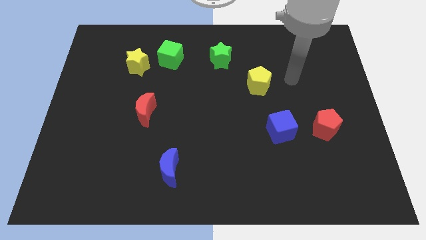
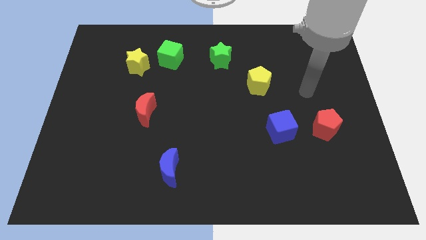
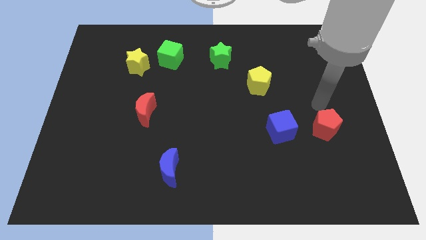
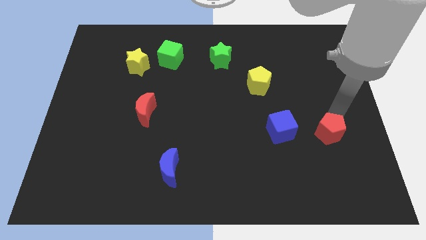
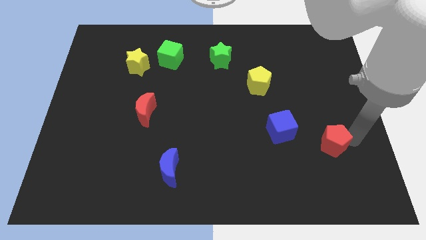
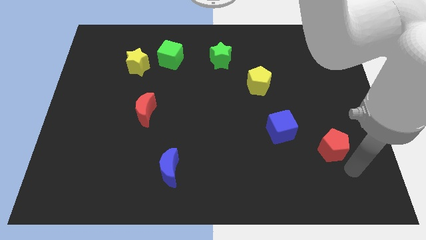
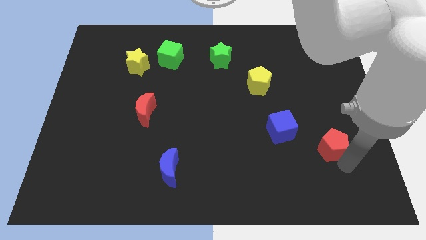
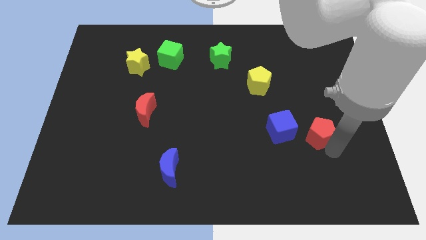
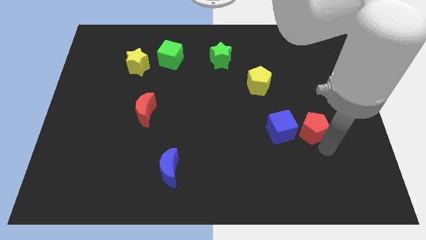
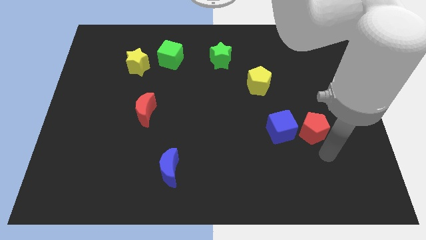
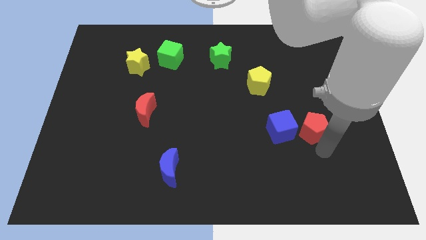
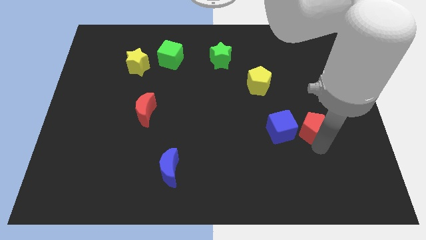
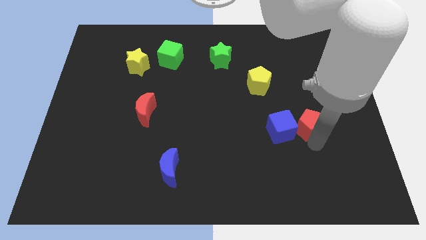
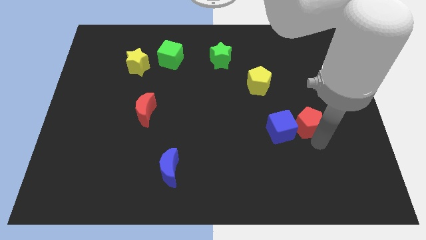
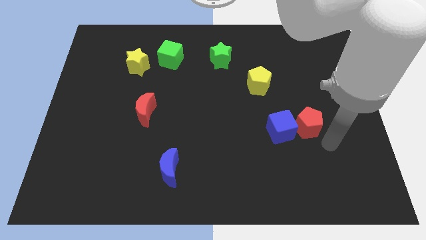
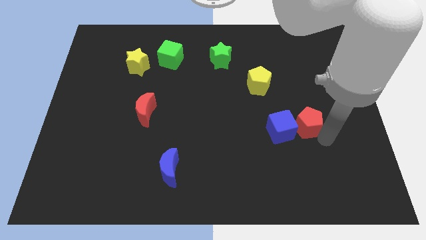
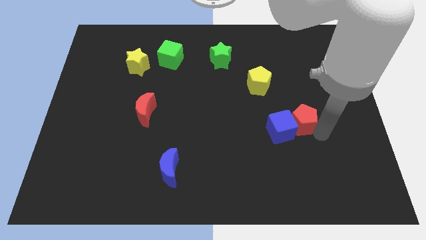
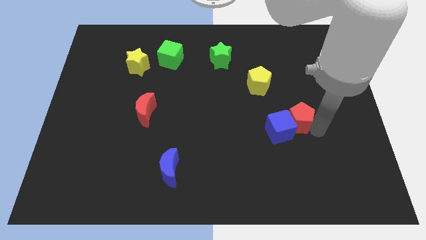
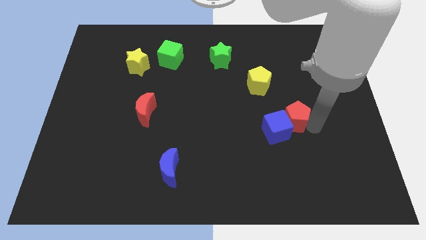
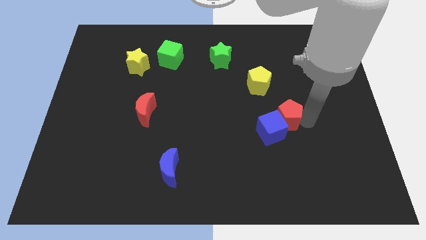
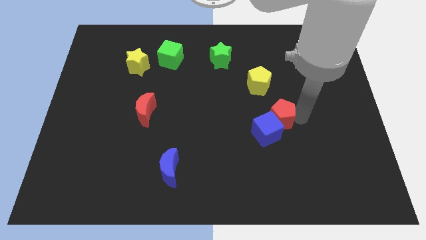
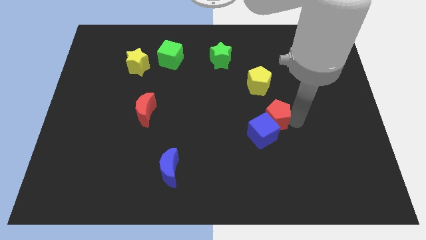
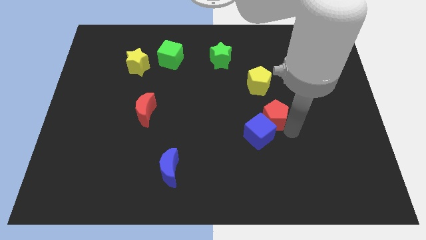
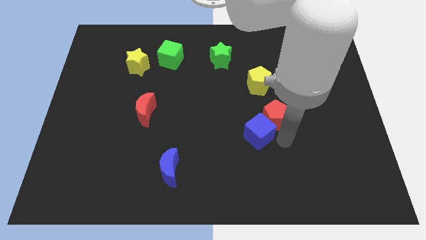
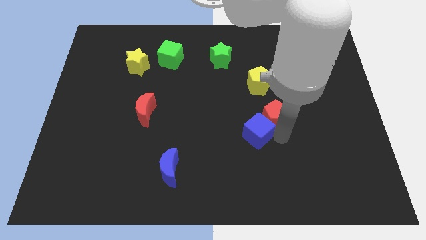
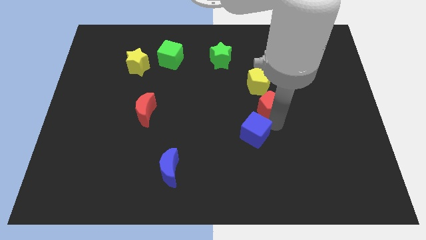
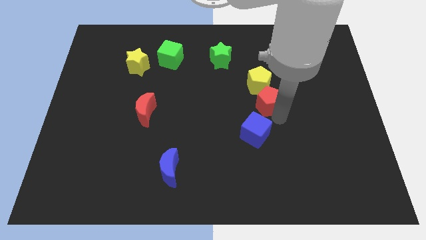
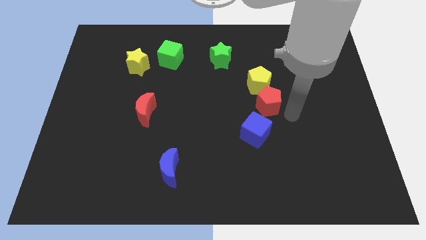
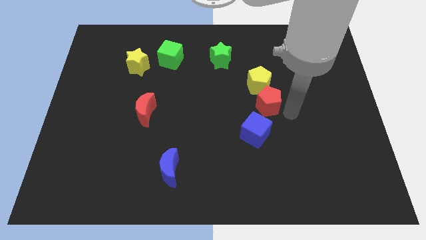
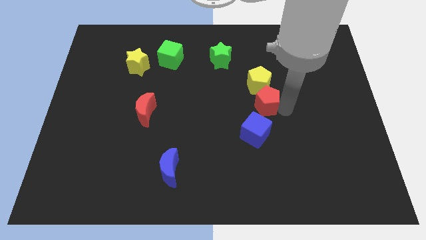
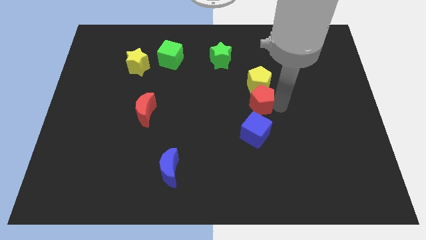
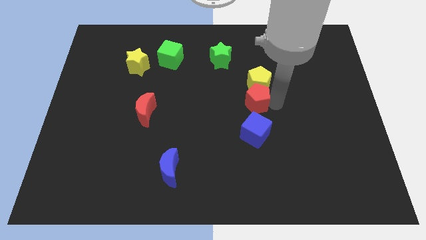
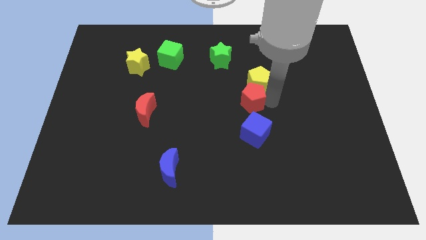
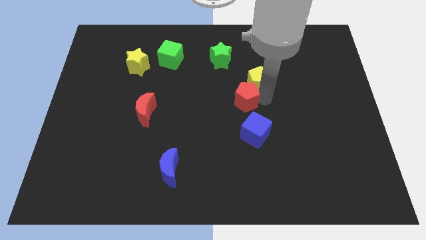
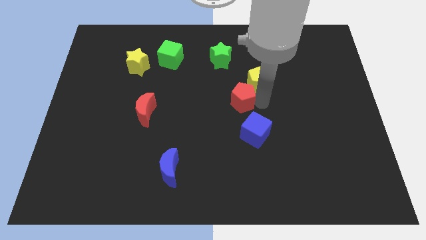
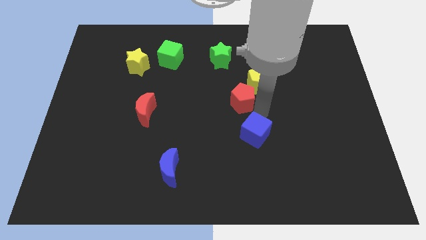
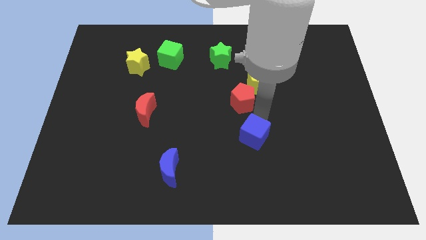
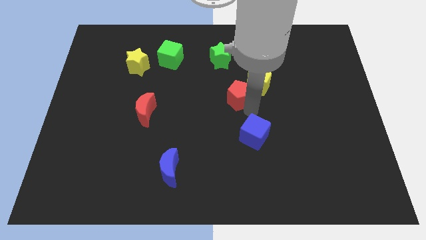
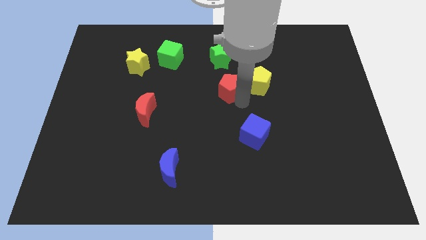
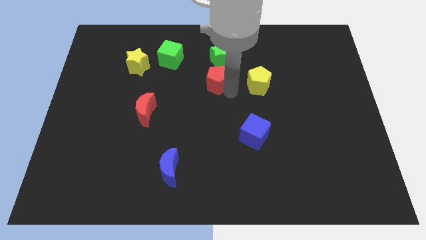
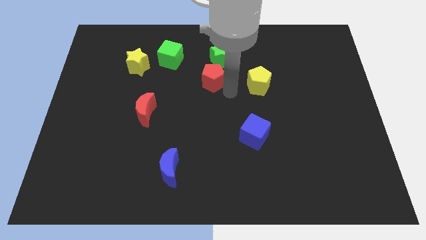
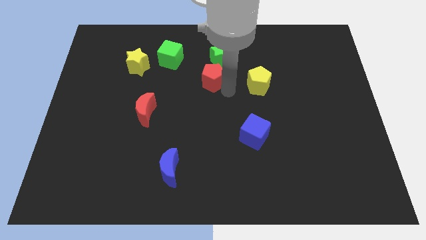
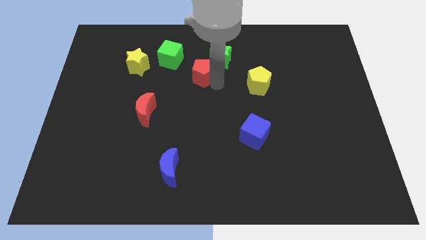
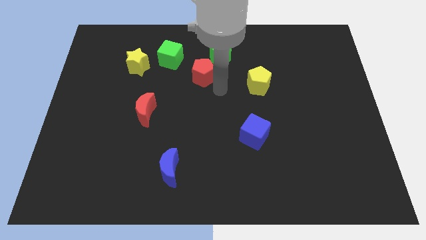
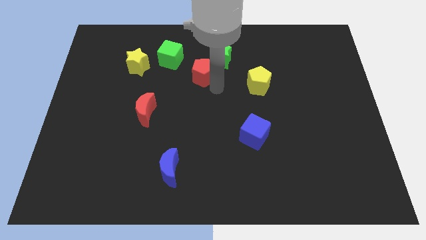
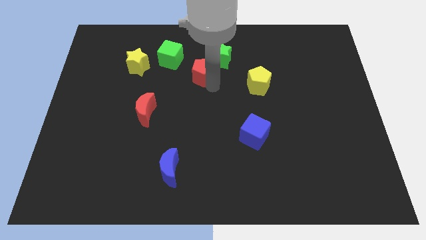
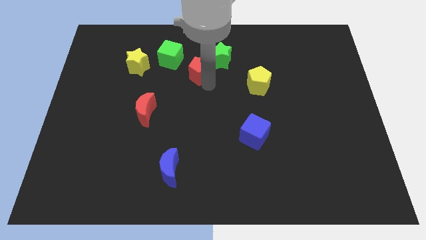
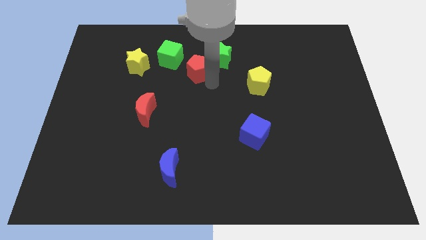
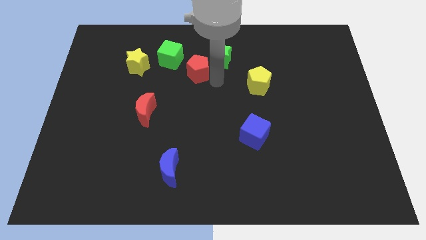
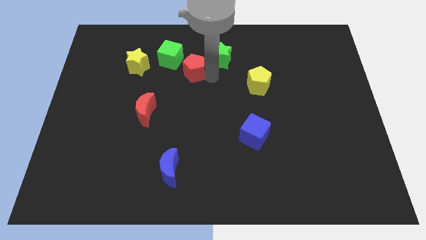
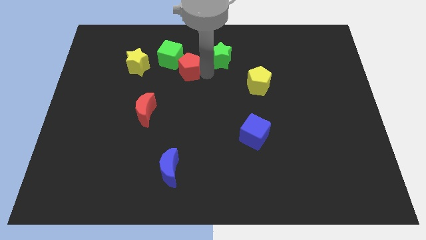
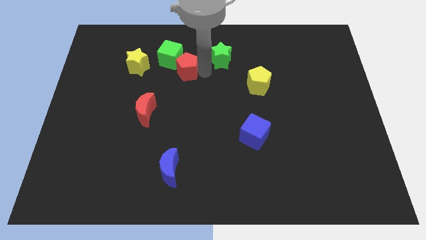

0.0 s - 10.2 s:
slide the red pentagon towards the green cube

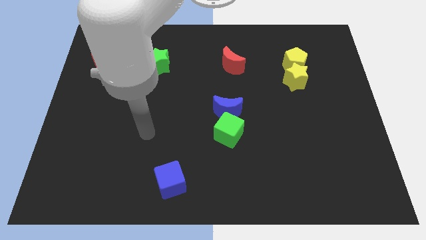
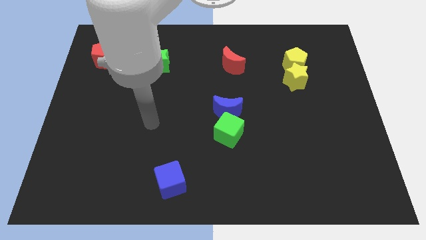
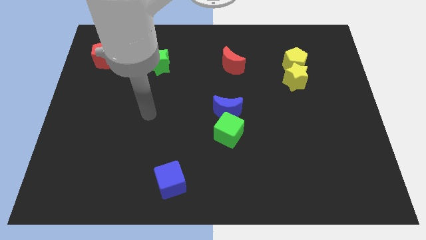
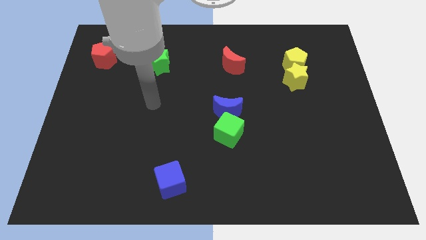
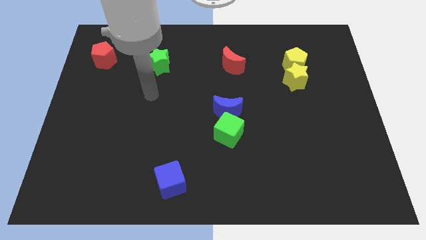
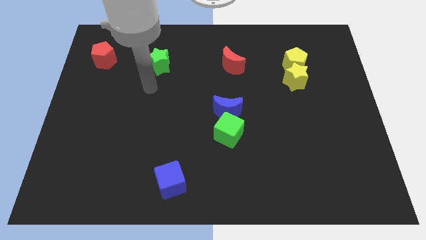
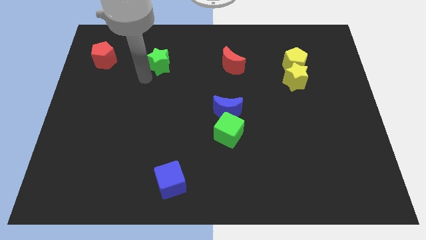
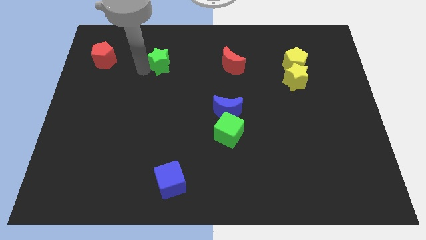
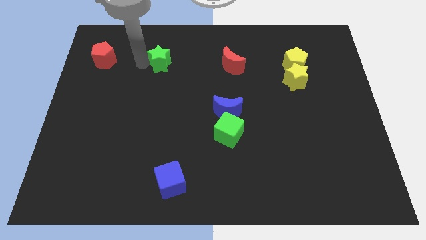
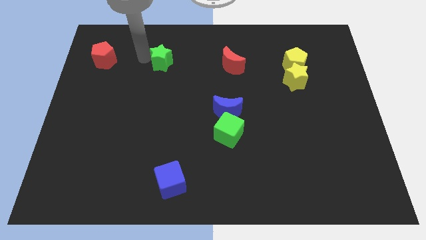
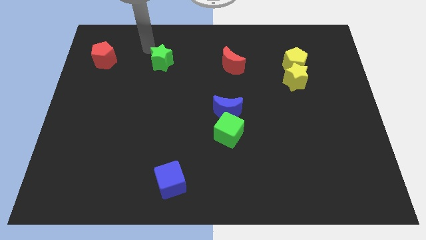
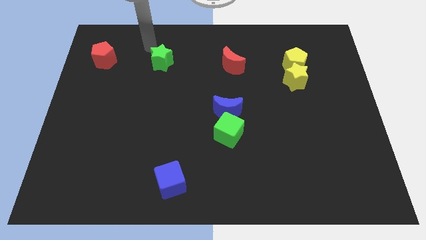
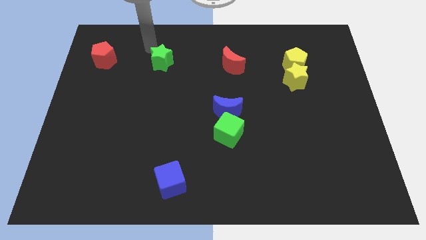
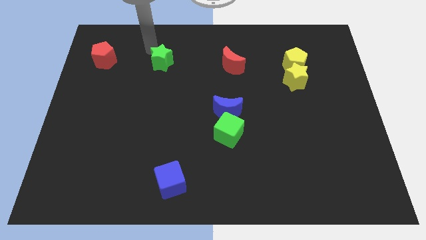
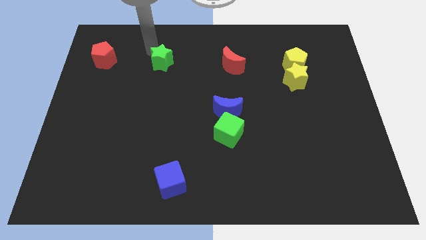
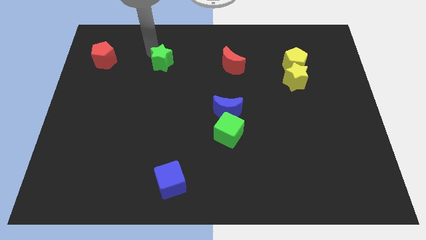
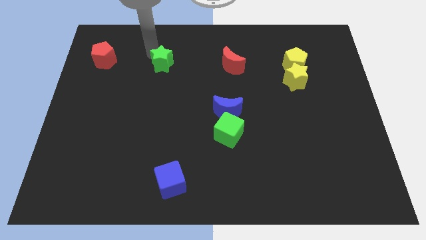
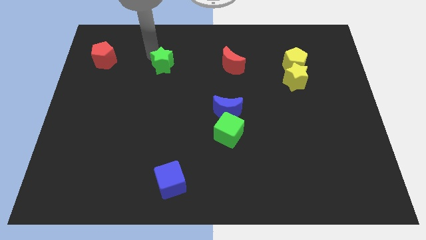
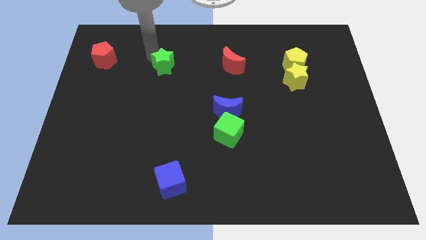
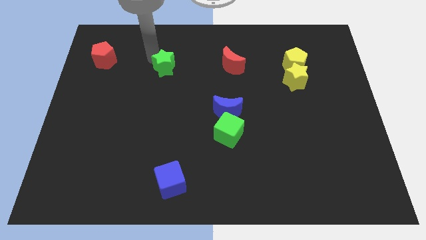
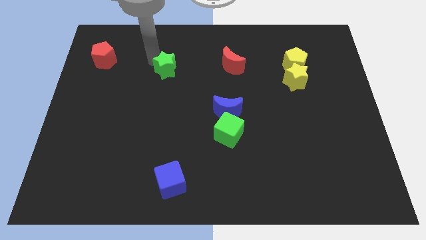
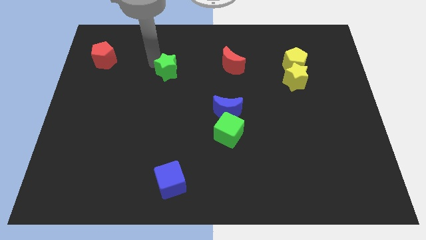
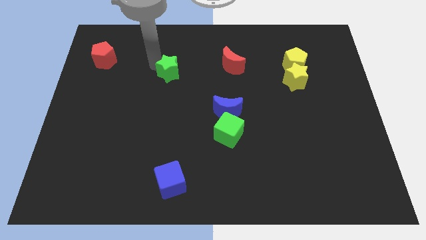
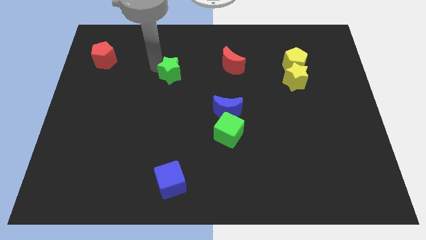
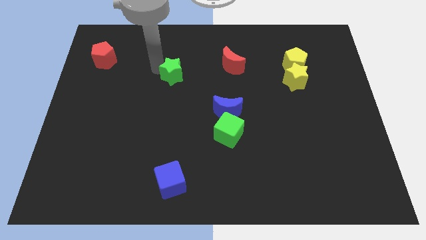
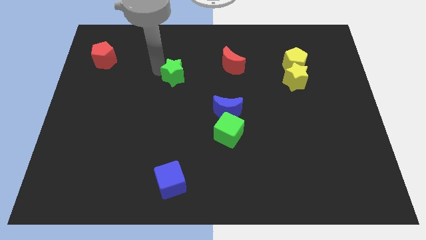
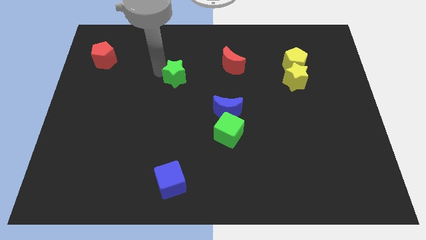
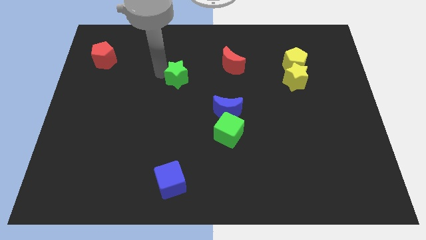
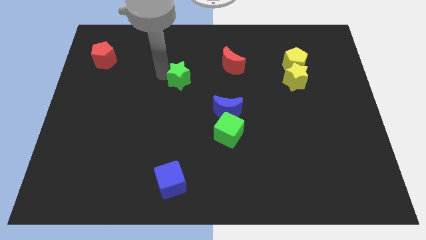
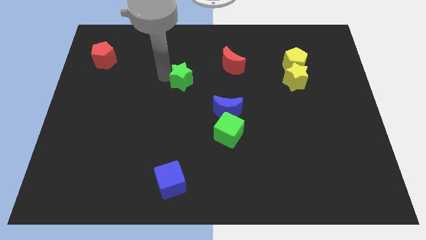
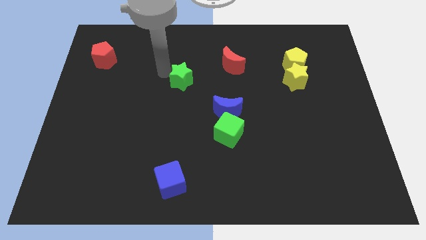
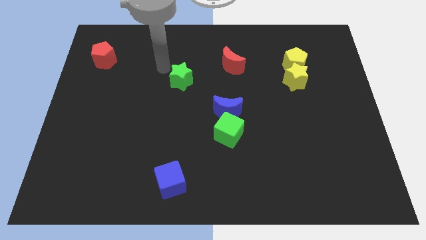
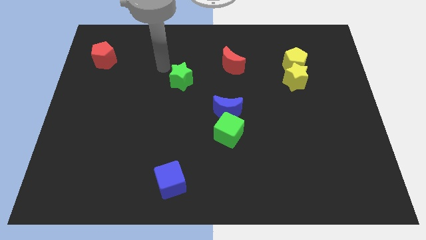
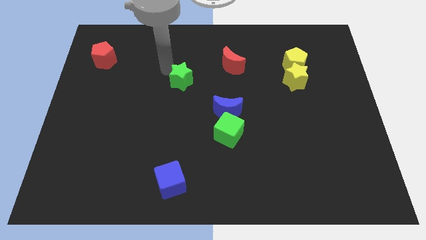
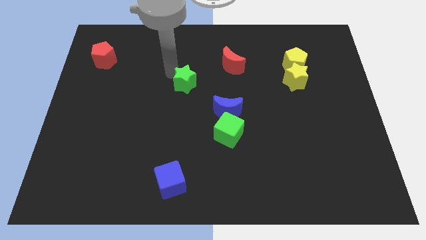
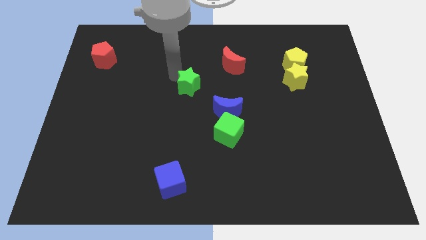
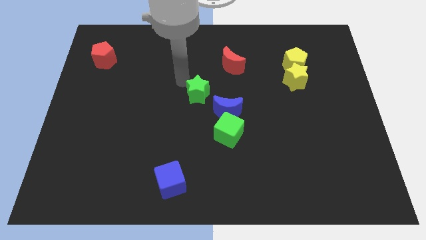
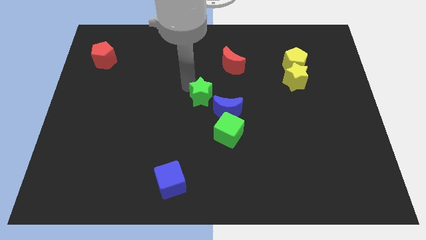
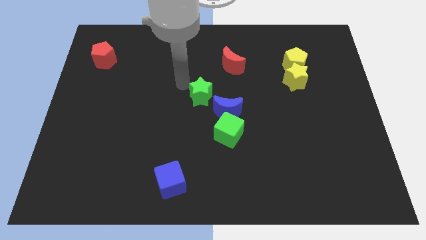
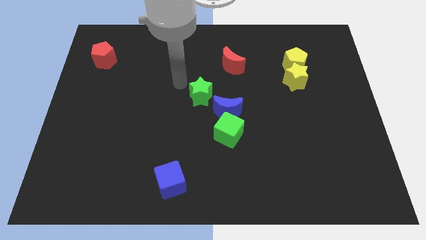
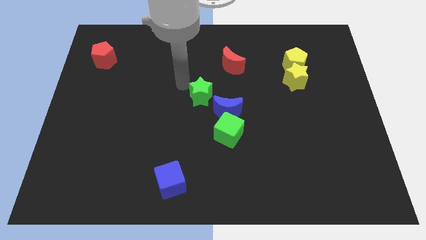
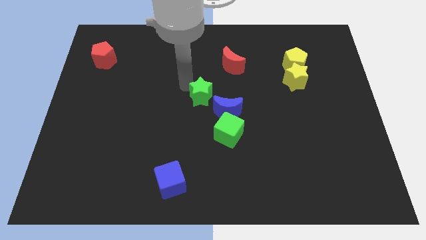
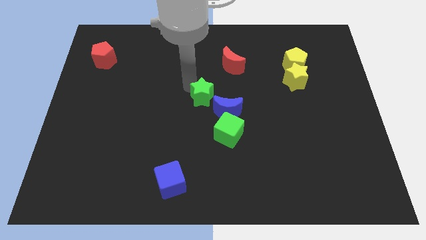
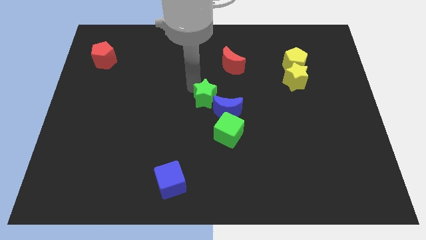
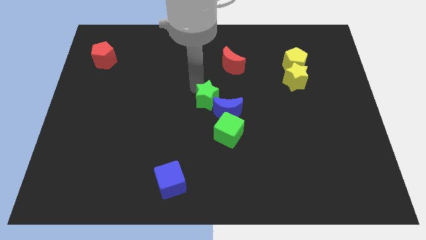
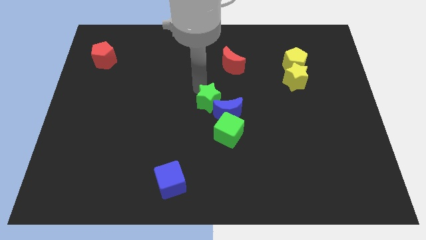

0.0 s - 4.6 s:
slide the green star towards the blue moon
